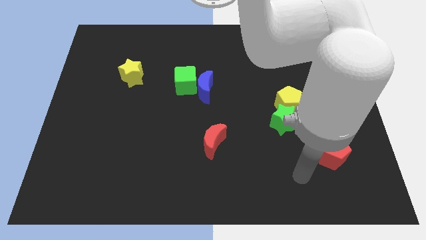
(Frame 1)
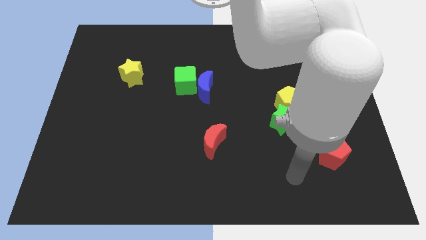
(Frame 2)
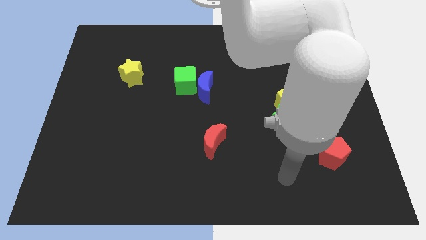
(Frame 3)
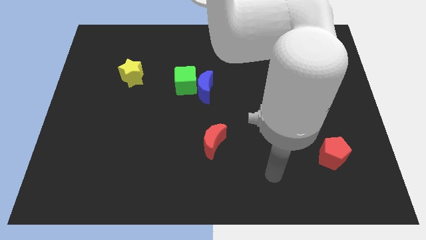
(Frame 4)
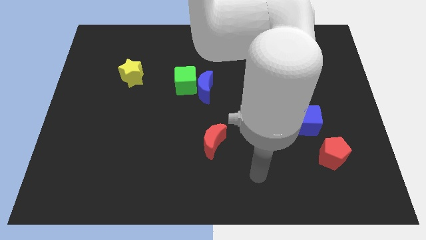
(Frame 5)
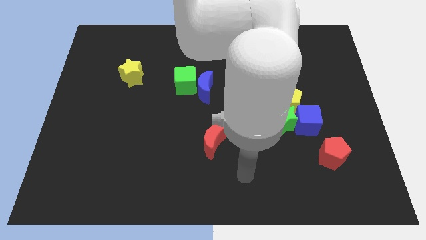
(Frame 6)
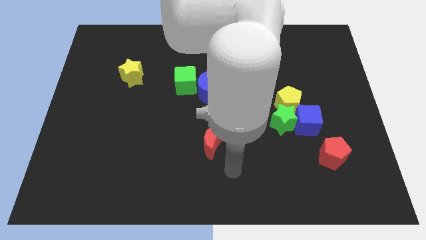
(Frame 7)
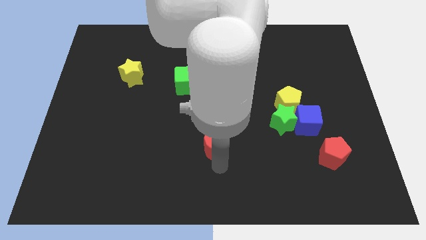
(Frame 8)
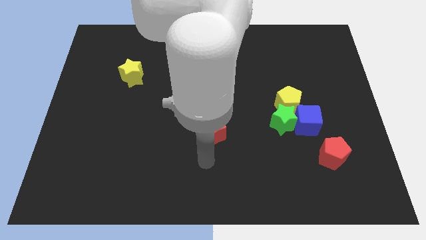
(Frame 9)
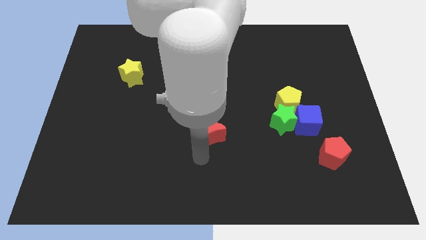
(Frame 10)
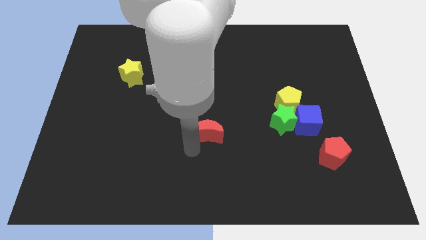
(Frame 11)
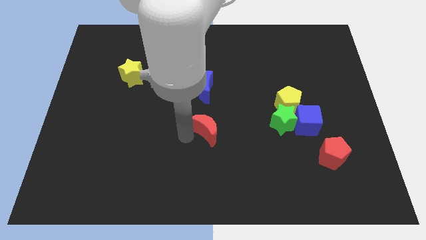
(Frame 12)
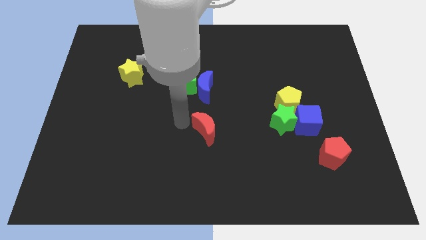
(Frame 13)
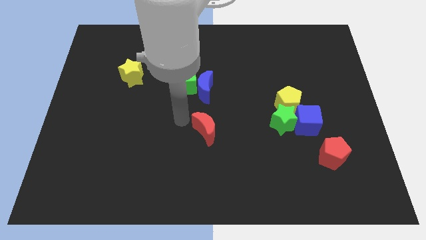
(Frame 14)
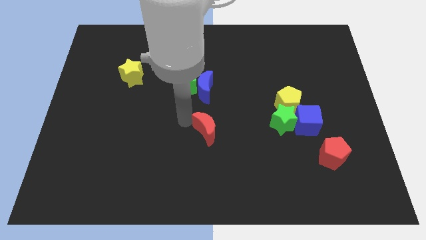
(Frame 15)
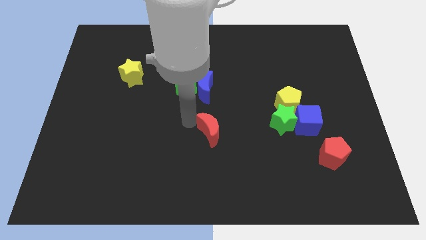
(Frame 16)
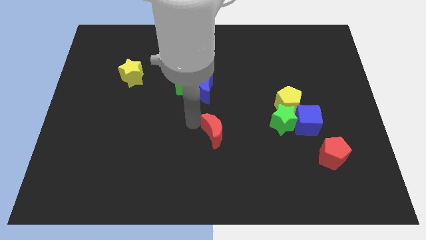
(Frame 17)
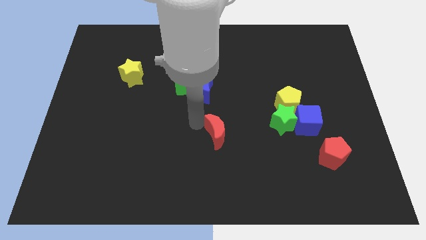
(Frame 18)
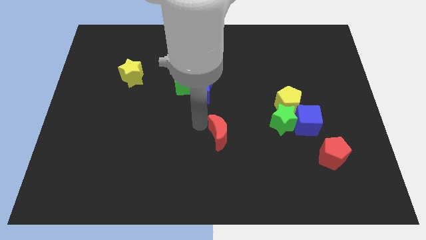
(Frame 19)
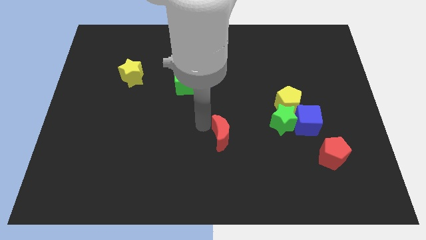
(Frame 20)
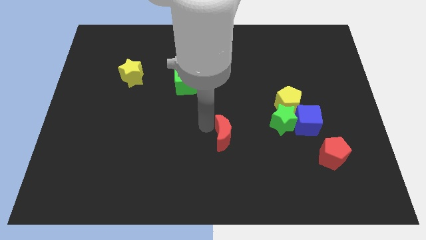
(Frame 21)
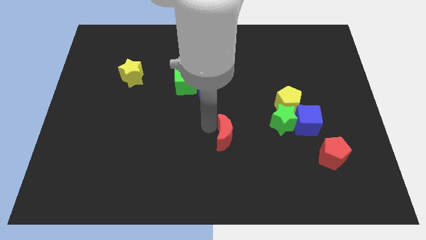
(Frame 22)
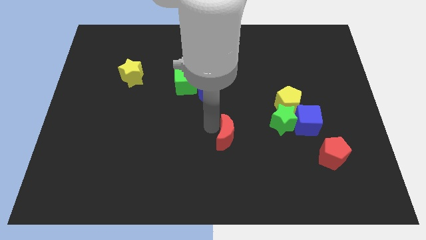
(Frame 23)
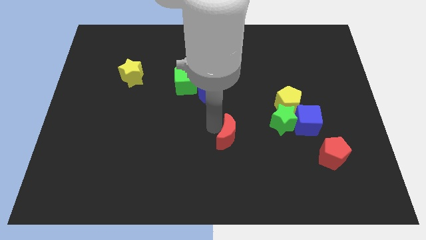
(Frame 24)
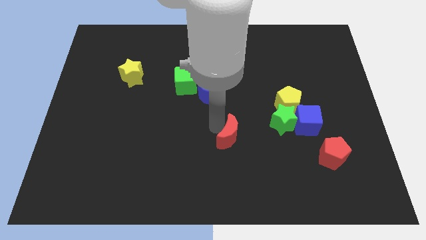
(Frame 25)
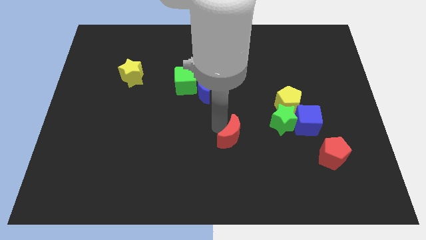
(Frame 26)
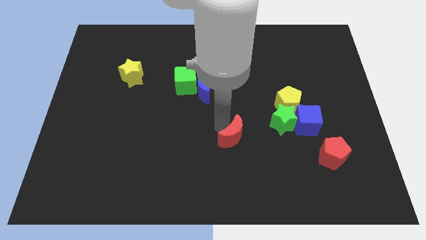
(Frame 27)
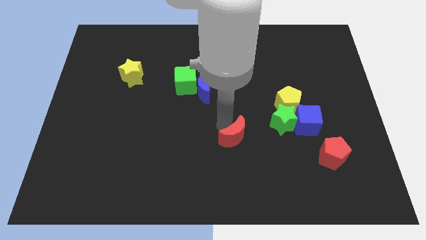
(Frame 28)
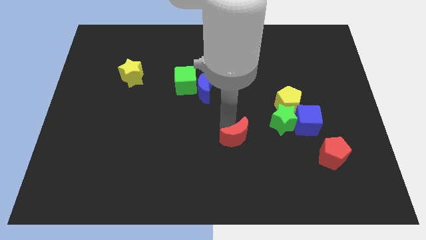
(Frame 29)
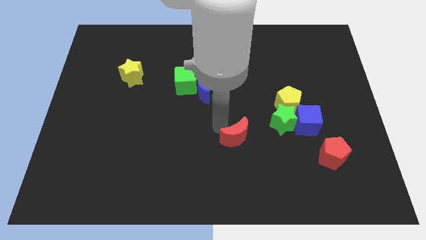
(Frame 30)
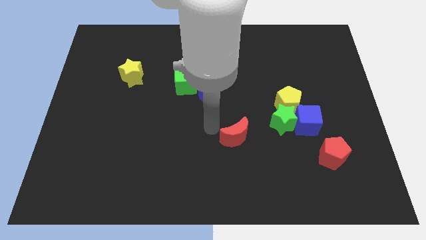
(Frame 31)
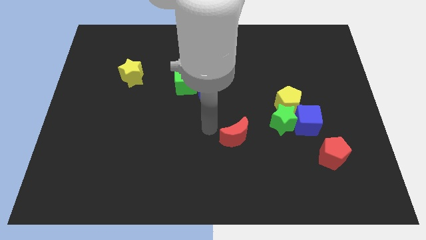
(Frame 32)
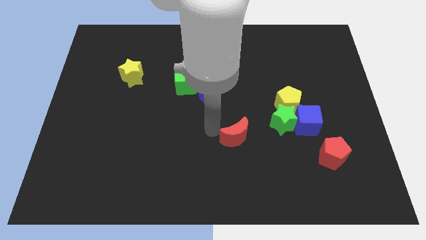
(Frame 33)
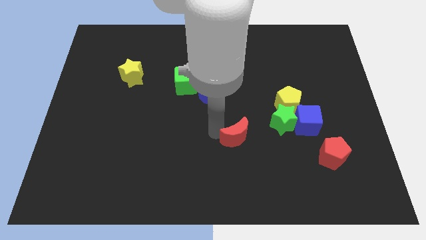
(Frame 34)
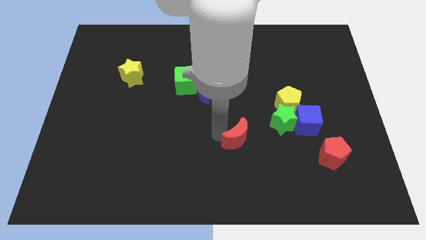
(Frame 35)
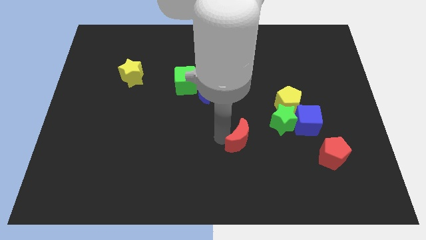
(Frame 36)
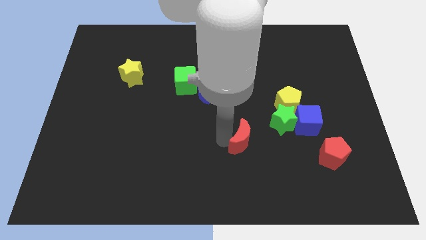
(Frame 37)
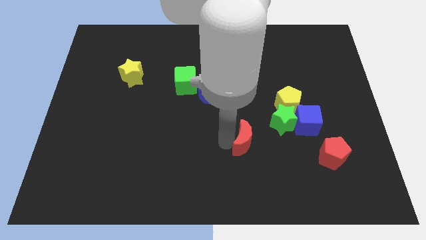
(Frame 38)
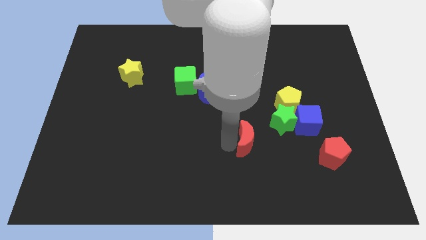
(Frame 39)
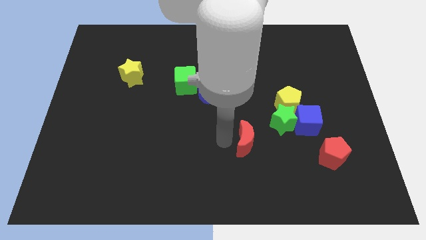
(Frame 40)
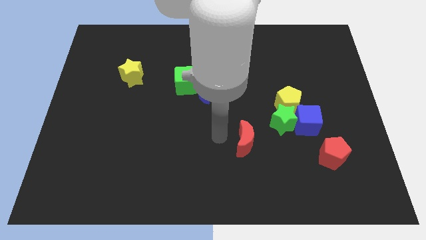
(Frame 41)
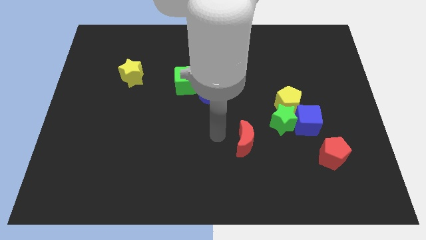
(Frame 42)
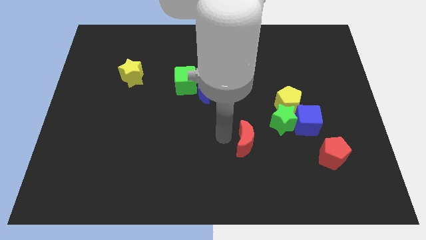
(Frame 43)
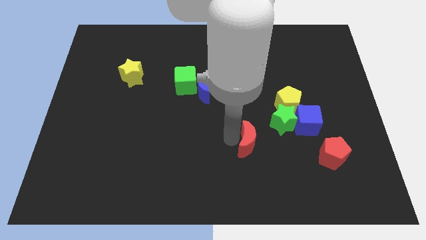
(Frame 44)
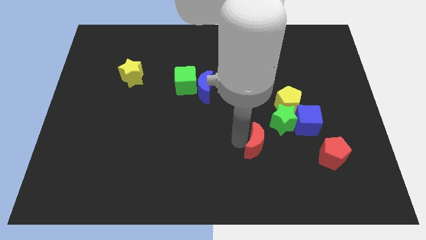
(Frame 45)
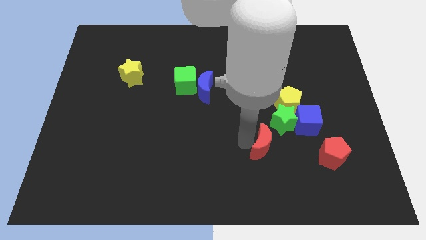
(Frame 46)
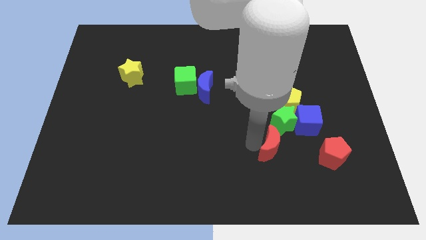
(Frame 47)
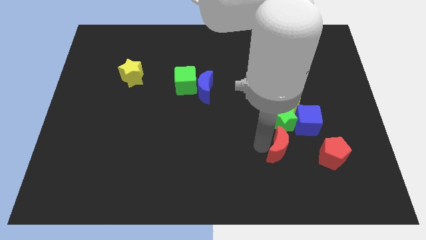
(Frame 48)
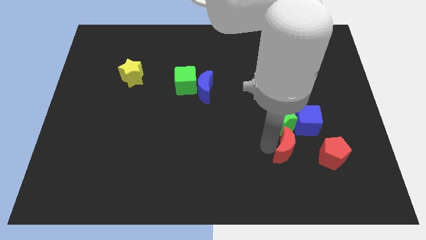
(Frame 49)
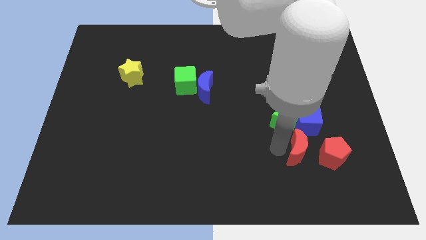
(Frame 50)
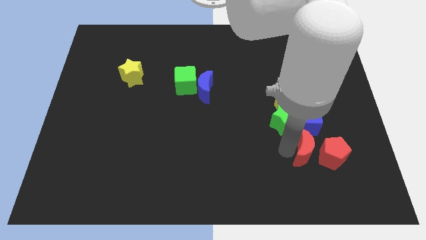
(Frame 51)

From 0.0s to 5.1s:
move the red moon towards the red pentagon

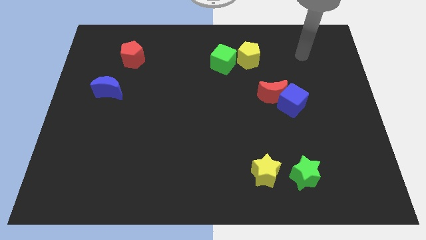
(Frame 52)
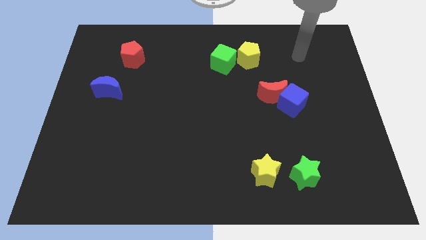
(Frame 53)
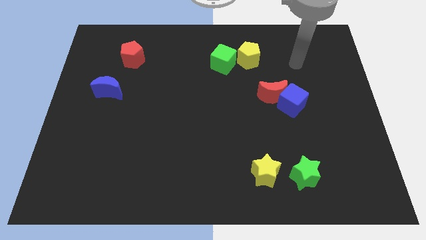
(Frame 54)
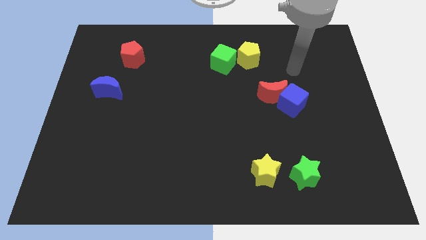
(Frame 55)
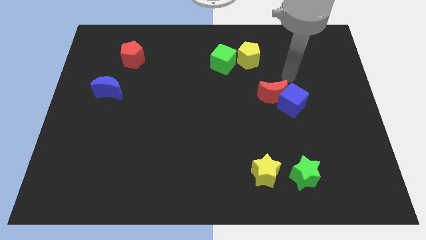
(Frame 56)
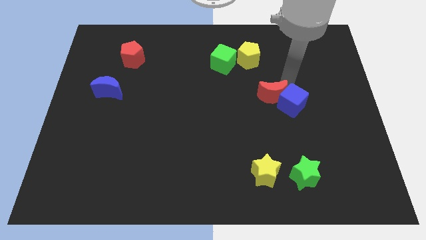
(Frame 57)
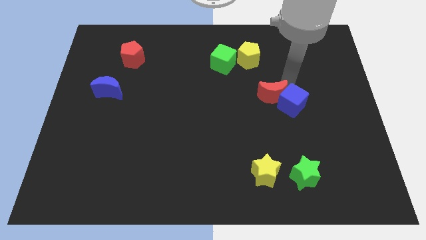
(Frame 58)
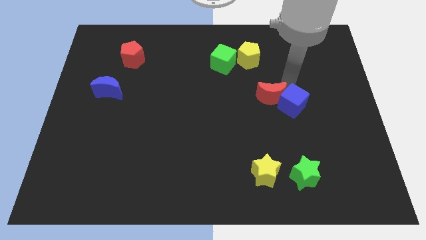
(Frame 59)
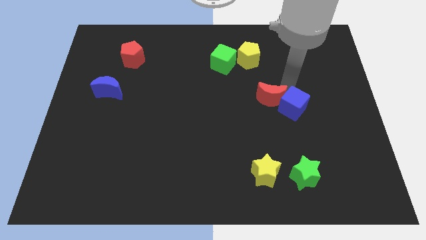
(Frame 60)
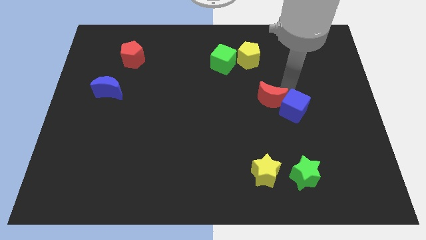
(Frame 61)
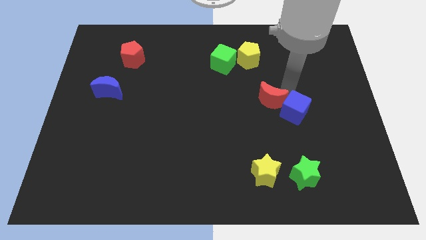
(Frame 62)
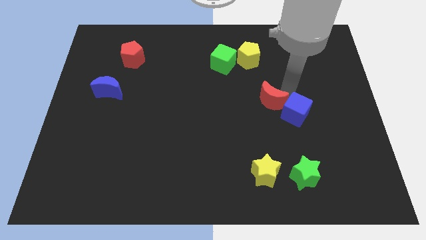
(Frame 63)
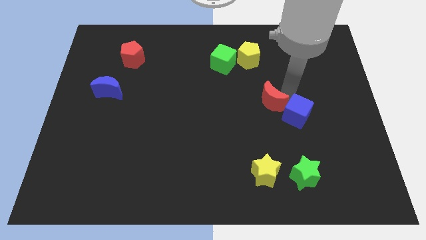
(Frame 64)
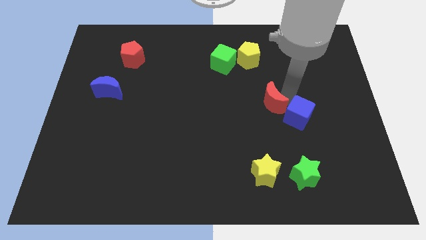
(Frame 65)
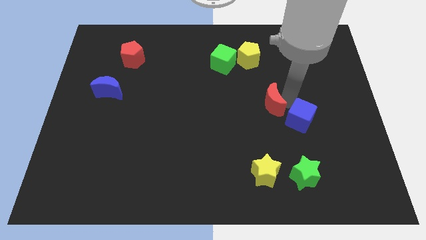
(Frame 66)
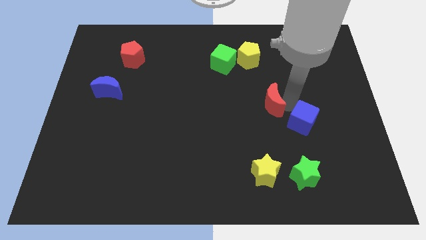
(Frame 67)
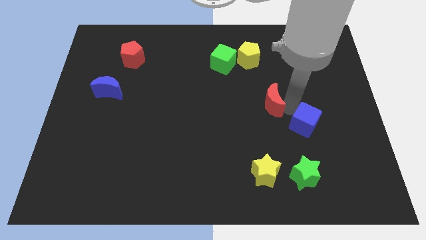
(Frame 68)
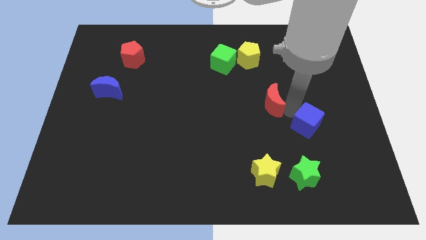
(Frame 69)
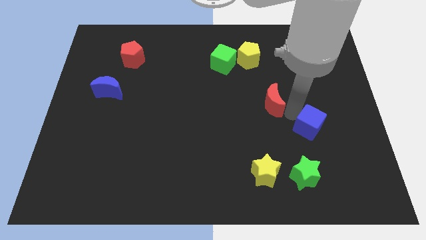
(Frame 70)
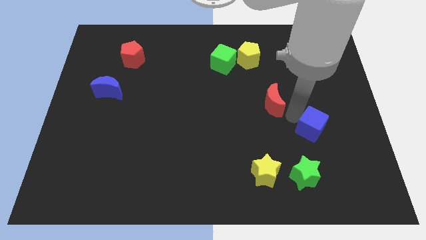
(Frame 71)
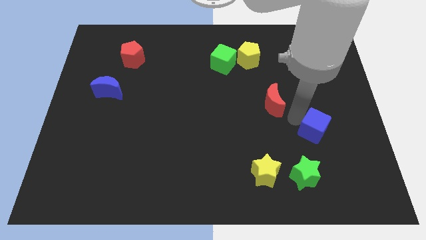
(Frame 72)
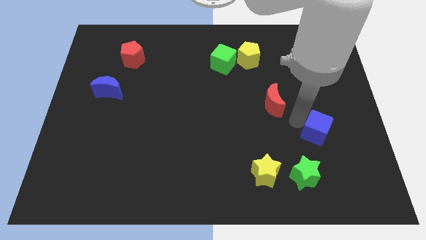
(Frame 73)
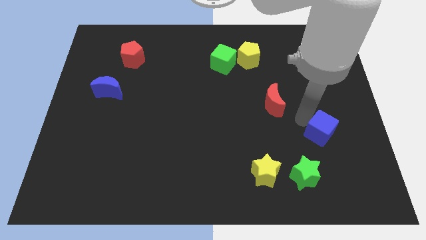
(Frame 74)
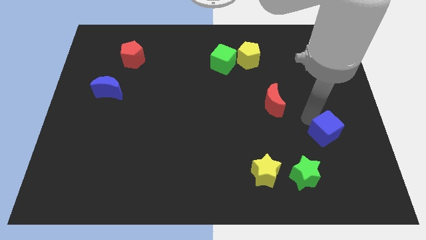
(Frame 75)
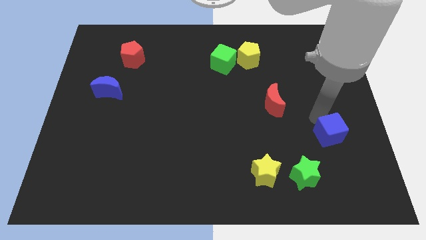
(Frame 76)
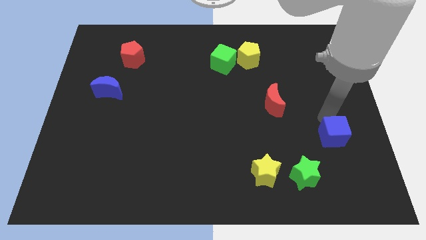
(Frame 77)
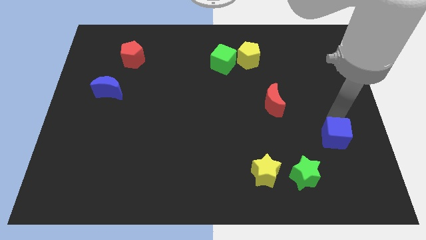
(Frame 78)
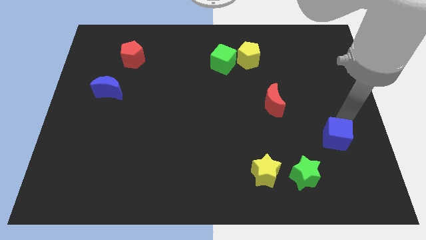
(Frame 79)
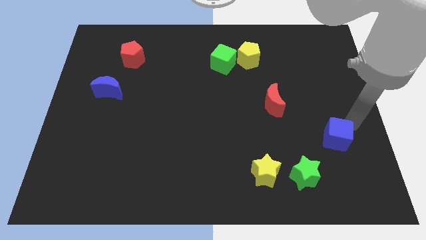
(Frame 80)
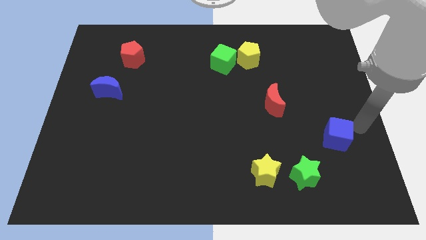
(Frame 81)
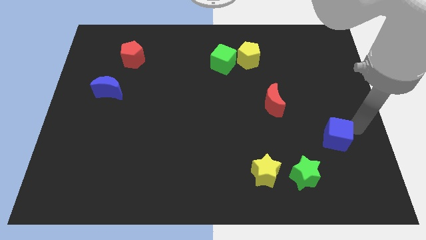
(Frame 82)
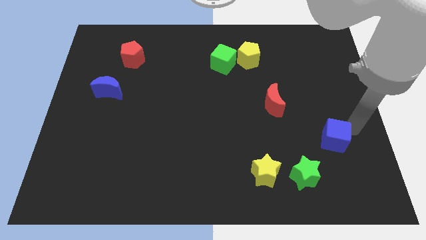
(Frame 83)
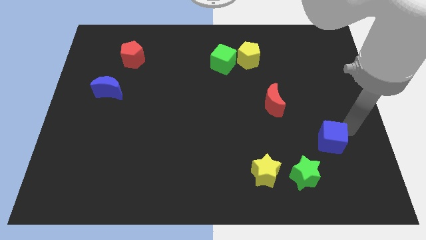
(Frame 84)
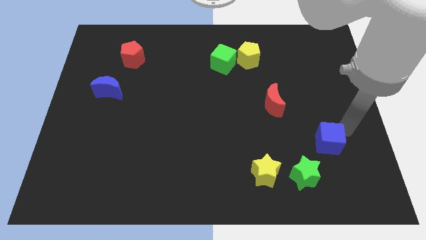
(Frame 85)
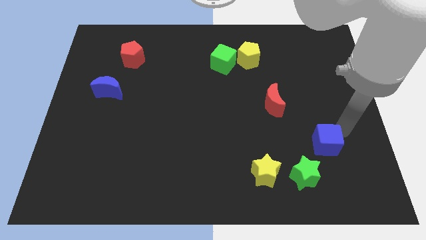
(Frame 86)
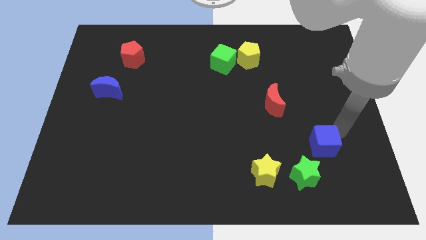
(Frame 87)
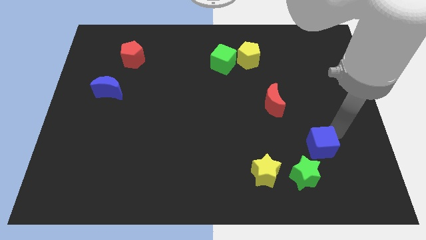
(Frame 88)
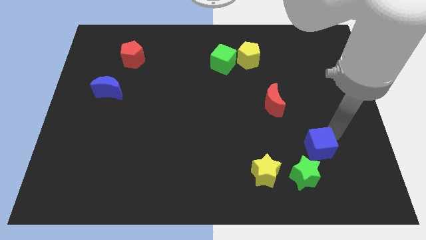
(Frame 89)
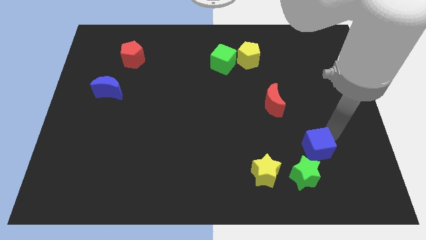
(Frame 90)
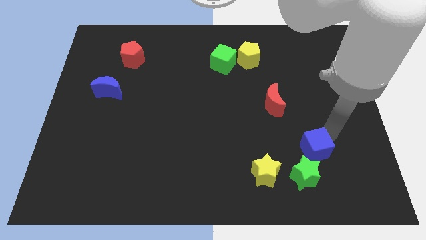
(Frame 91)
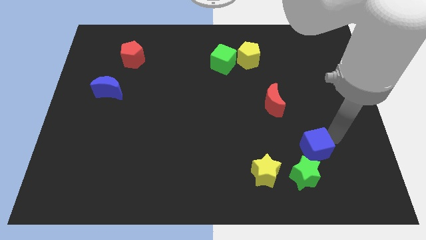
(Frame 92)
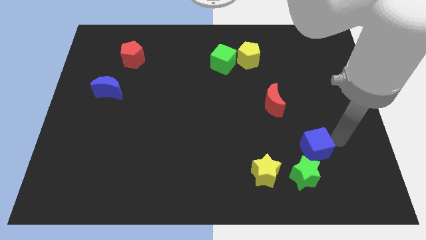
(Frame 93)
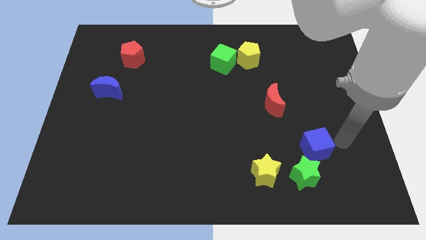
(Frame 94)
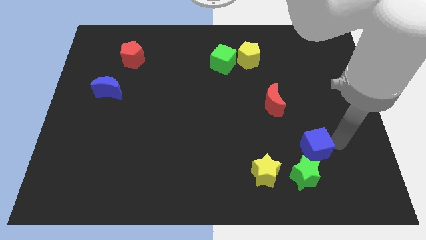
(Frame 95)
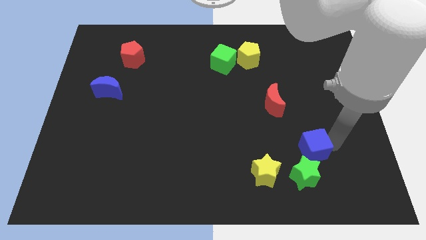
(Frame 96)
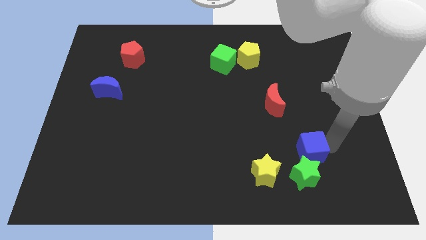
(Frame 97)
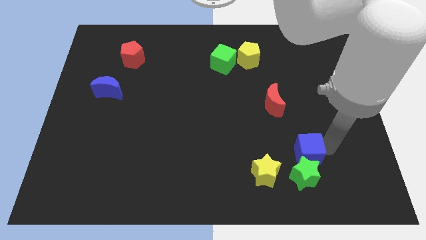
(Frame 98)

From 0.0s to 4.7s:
put the blue cube next to the green star
